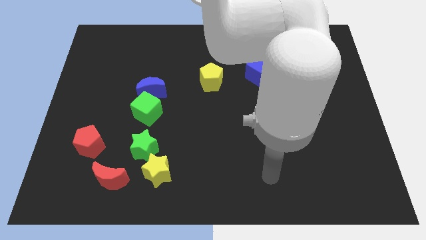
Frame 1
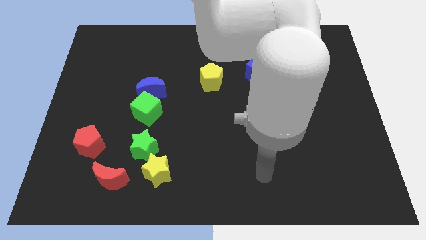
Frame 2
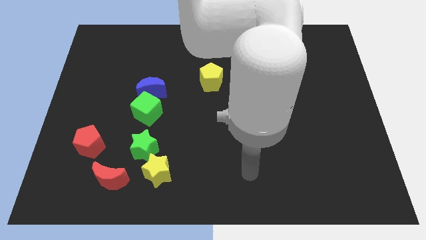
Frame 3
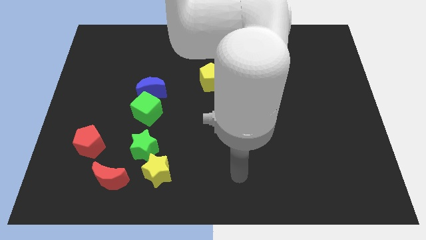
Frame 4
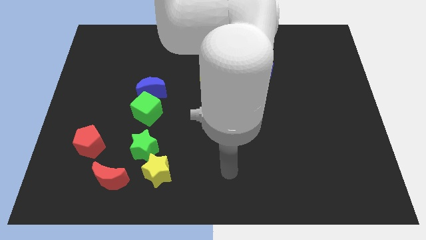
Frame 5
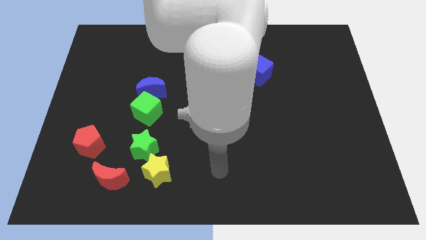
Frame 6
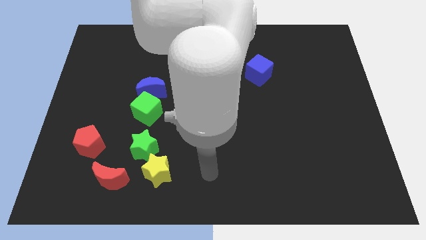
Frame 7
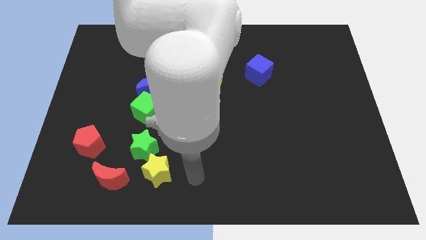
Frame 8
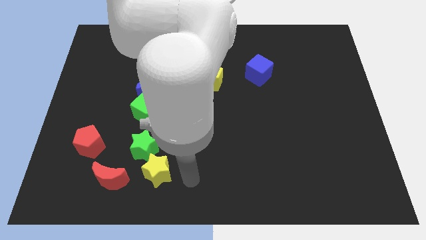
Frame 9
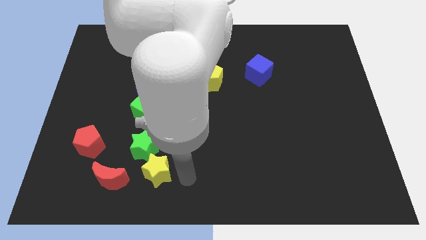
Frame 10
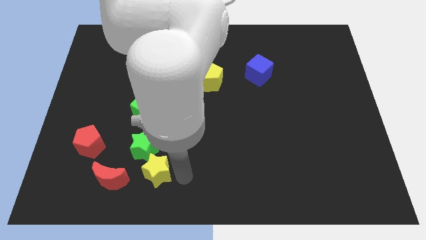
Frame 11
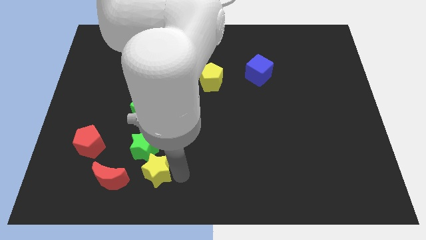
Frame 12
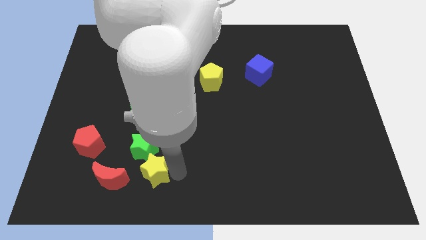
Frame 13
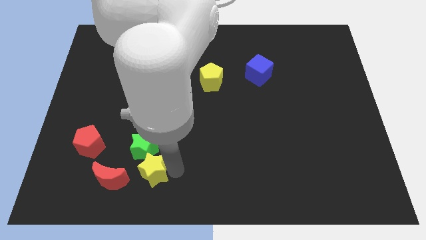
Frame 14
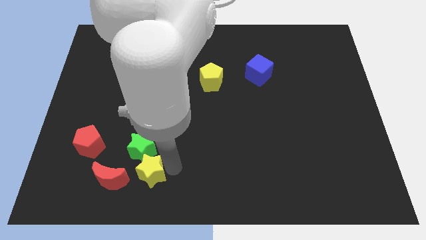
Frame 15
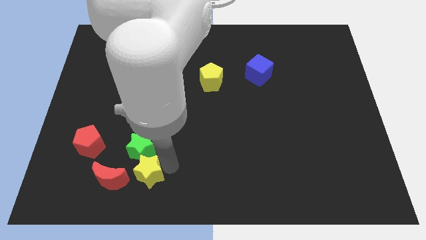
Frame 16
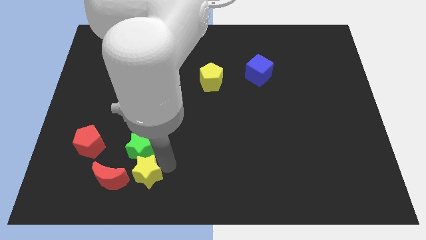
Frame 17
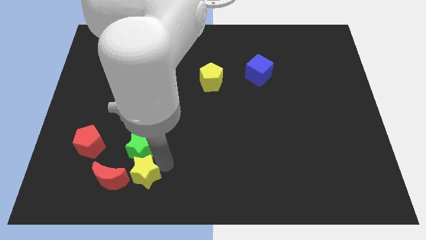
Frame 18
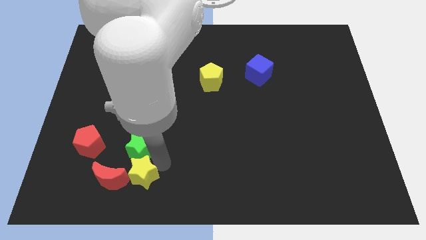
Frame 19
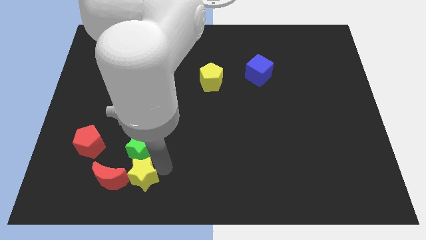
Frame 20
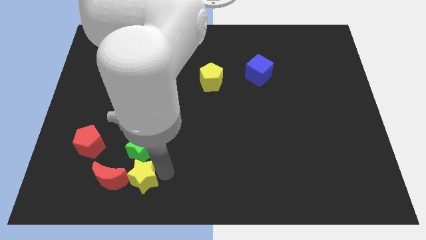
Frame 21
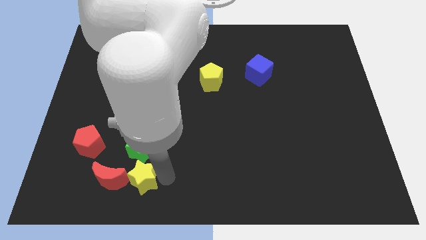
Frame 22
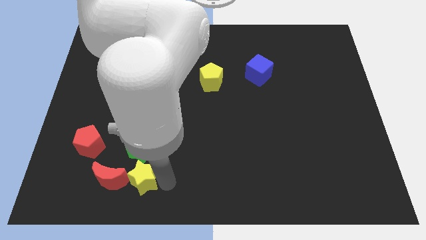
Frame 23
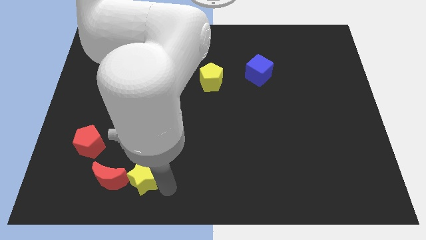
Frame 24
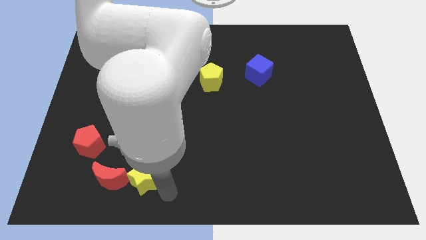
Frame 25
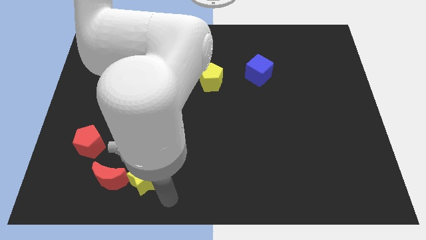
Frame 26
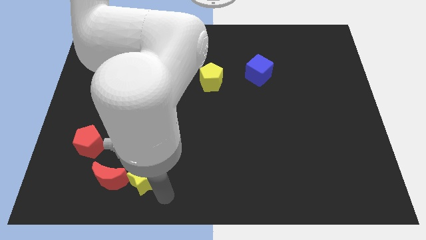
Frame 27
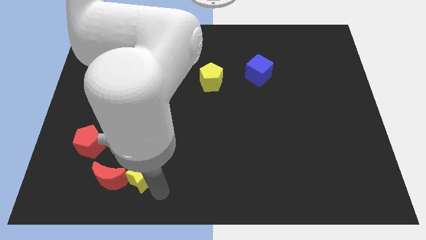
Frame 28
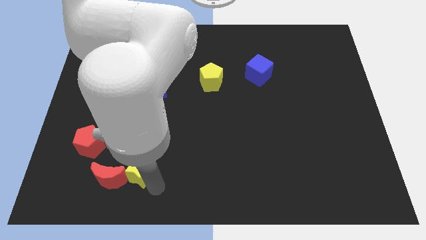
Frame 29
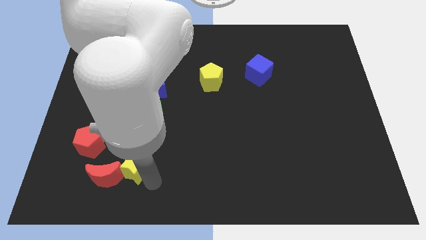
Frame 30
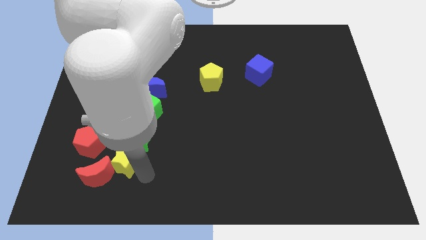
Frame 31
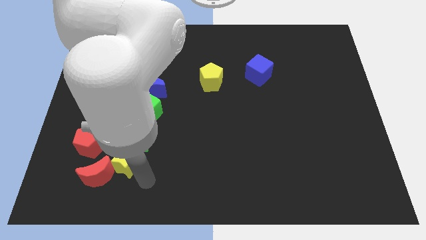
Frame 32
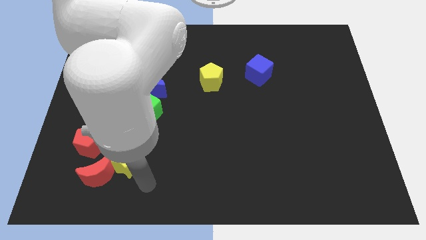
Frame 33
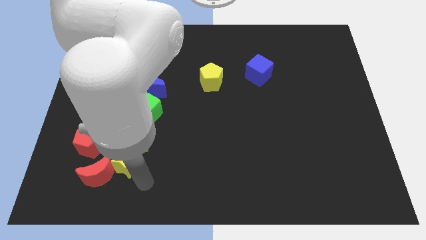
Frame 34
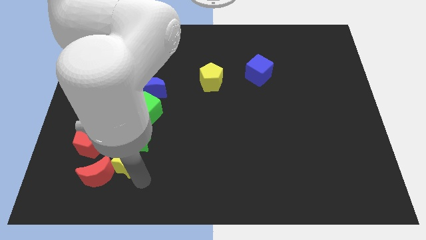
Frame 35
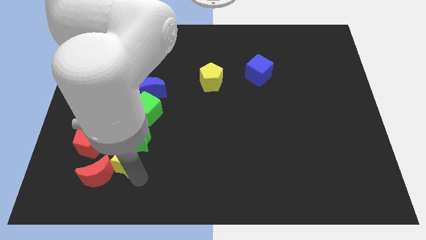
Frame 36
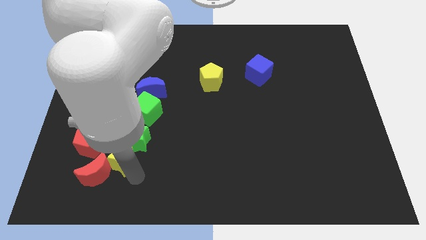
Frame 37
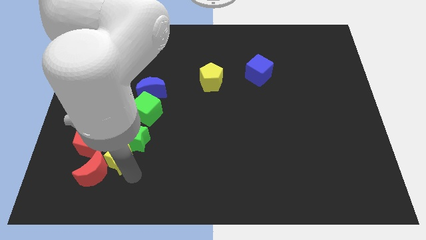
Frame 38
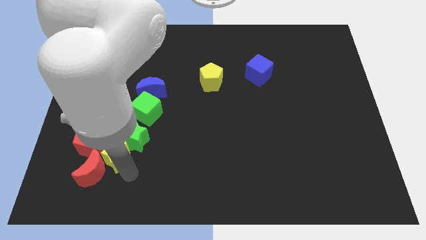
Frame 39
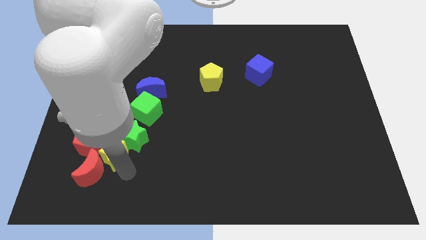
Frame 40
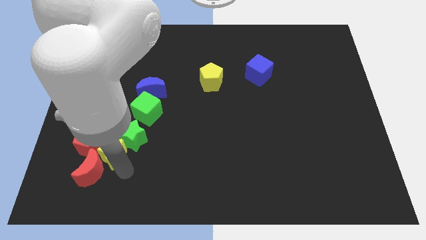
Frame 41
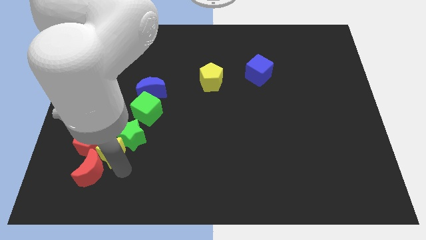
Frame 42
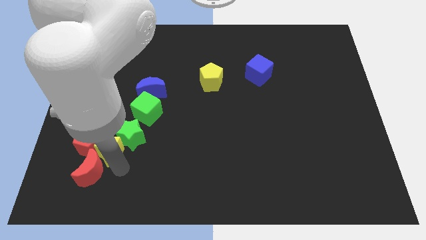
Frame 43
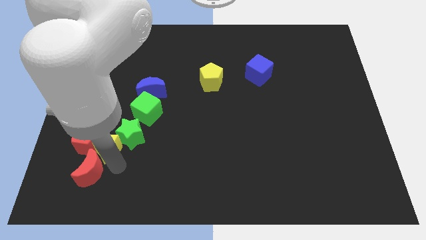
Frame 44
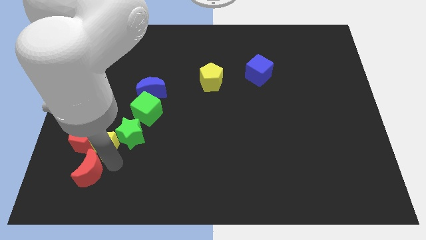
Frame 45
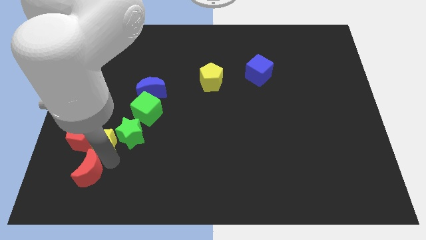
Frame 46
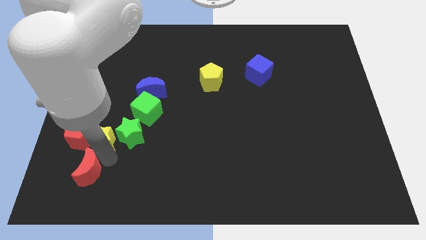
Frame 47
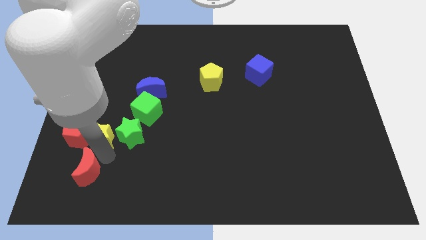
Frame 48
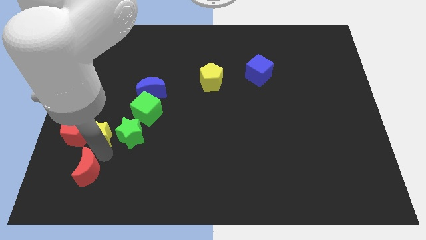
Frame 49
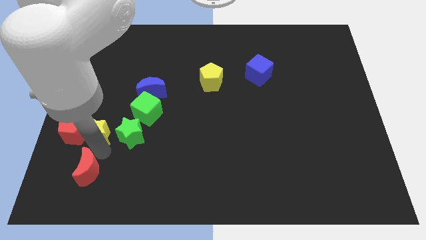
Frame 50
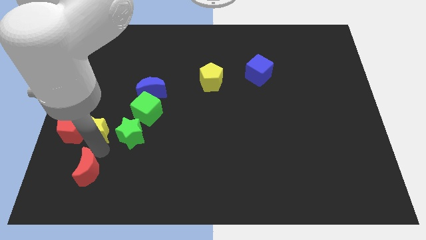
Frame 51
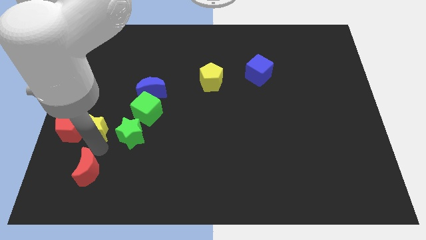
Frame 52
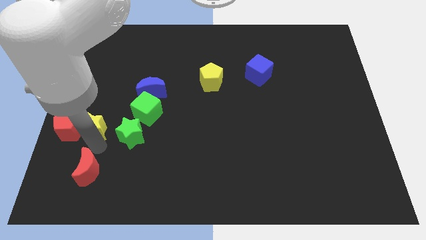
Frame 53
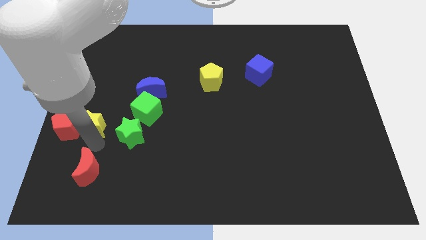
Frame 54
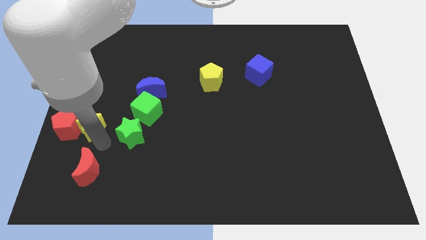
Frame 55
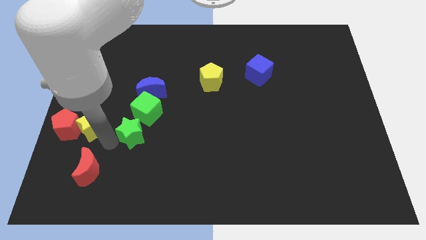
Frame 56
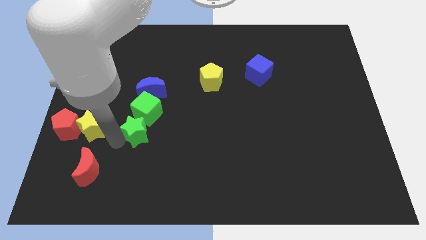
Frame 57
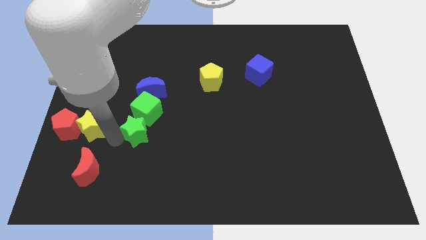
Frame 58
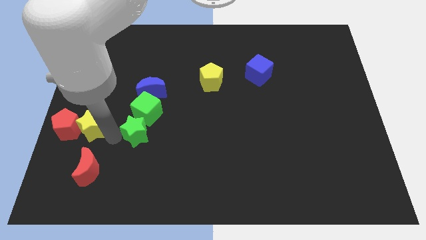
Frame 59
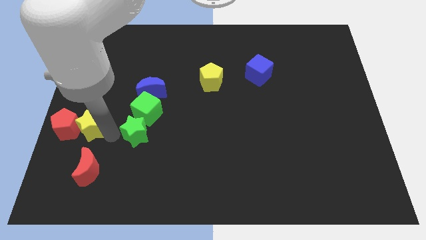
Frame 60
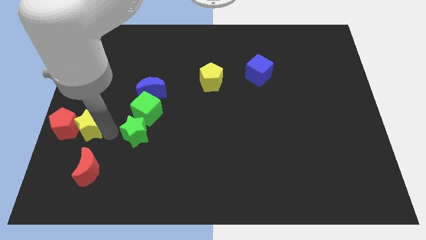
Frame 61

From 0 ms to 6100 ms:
push the yellow star to the center left

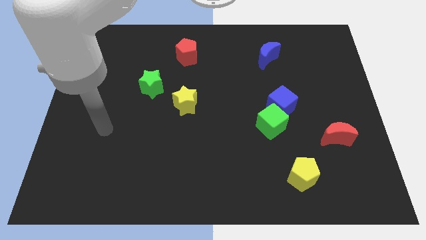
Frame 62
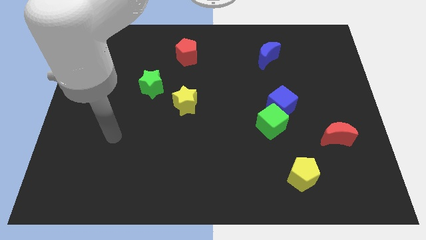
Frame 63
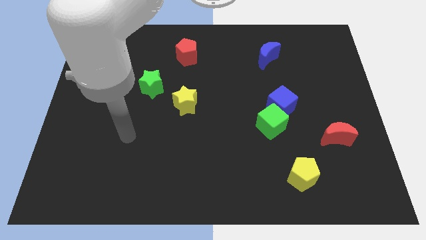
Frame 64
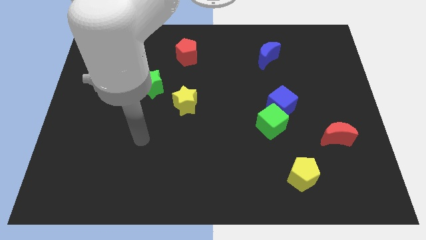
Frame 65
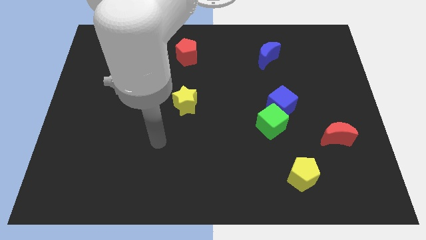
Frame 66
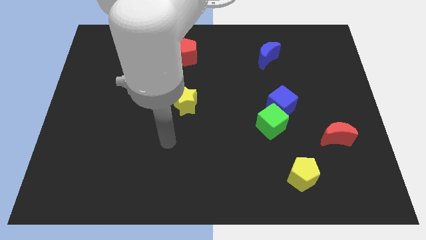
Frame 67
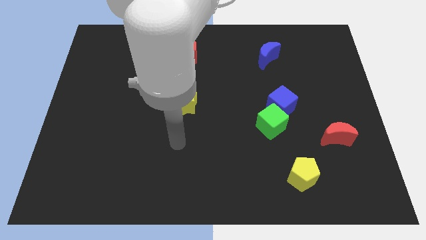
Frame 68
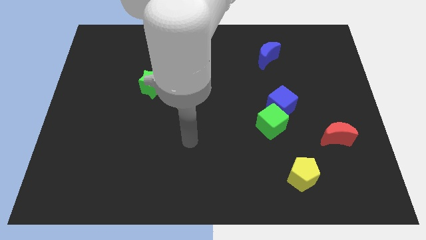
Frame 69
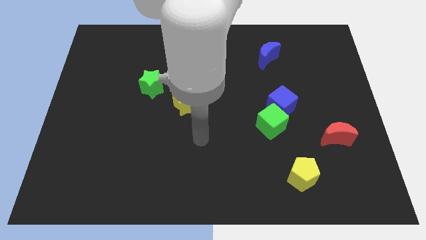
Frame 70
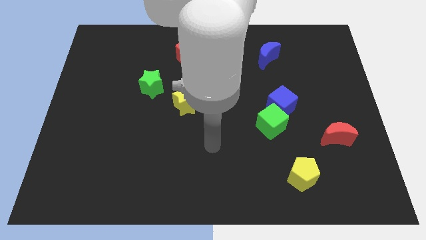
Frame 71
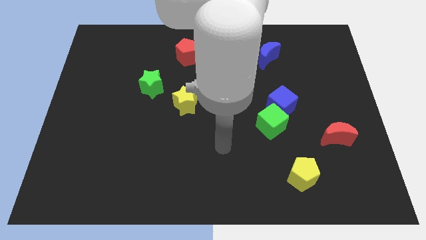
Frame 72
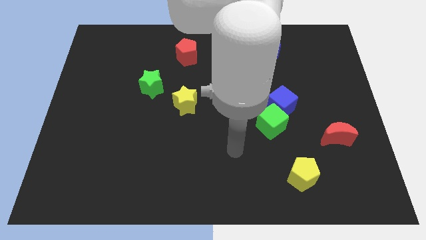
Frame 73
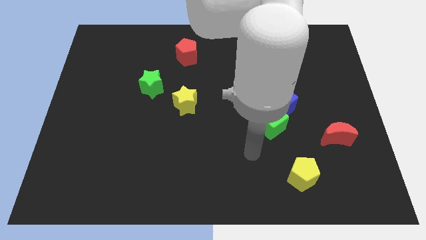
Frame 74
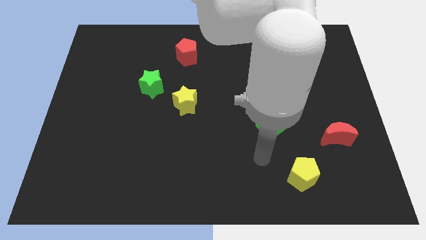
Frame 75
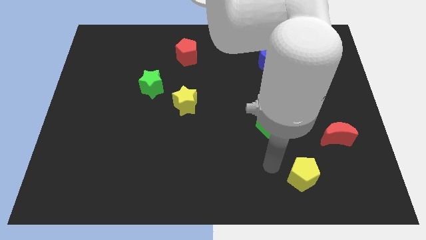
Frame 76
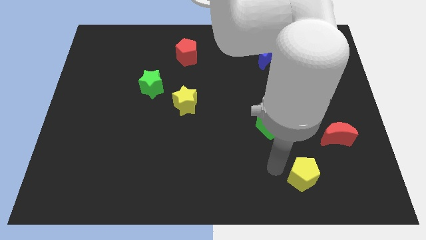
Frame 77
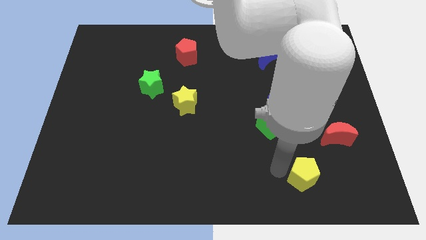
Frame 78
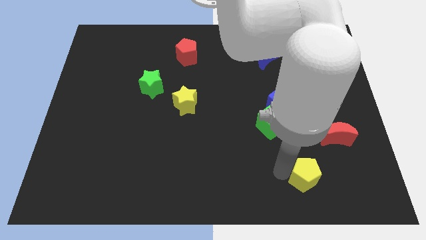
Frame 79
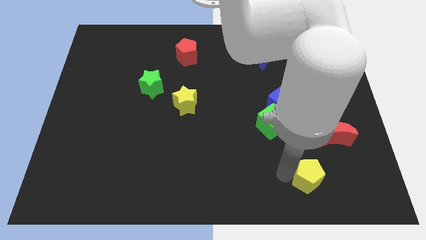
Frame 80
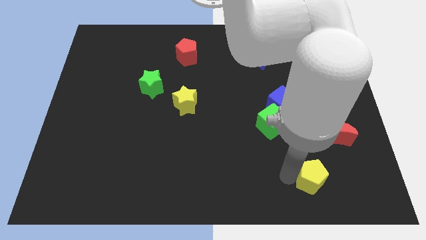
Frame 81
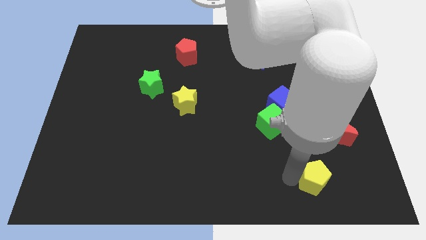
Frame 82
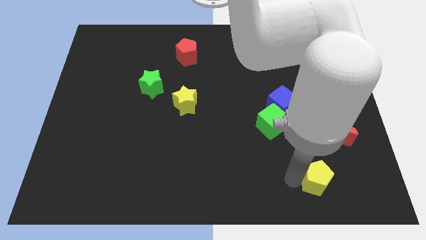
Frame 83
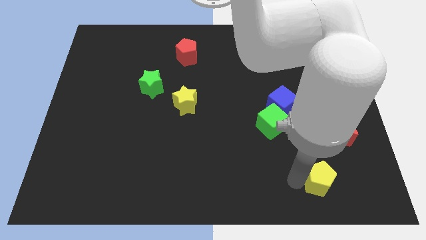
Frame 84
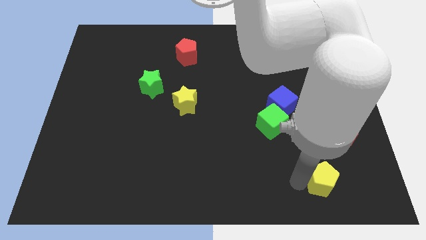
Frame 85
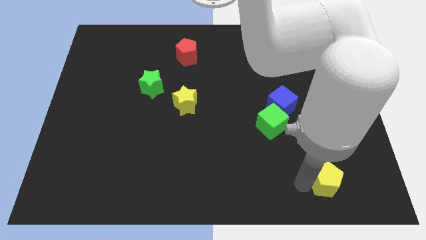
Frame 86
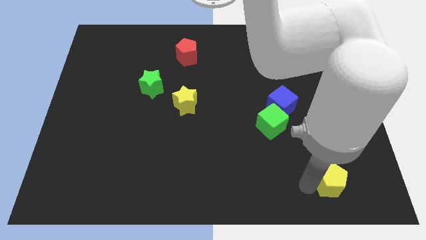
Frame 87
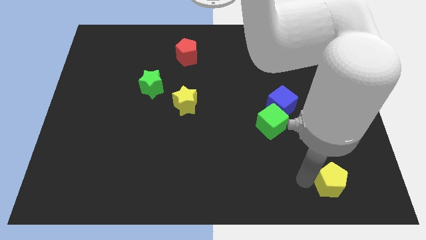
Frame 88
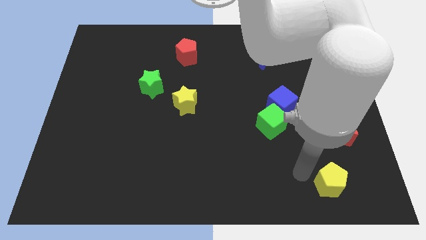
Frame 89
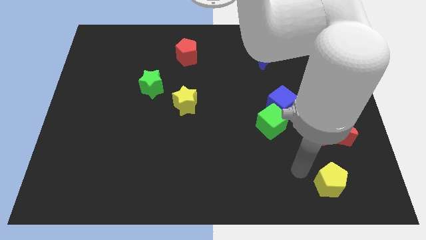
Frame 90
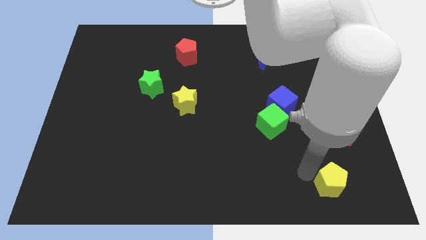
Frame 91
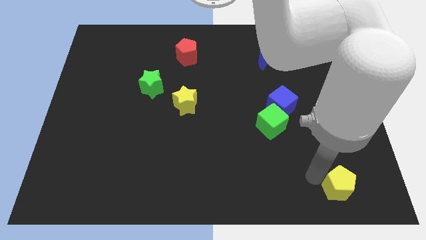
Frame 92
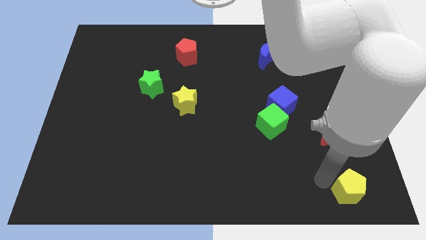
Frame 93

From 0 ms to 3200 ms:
push the yellow pentagon to the bottom right of the board
